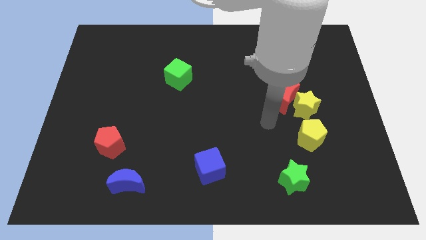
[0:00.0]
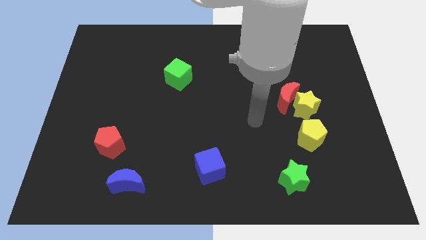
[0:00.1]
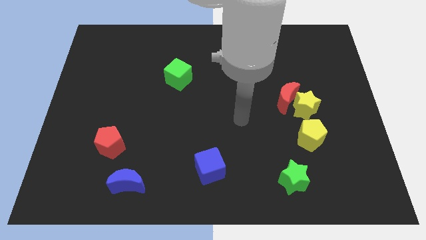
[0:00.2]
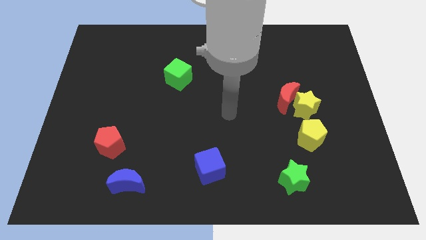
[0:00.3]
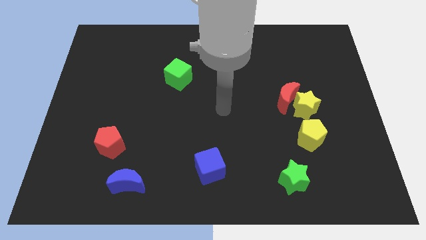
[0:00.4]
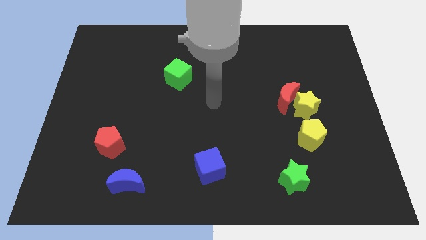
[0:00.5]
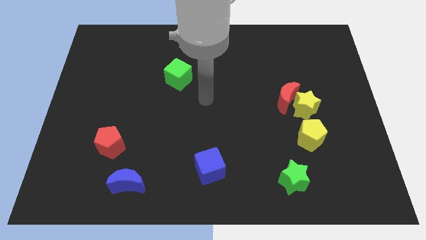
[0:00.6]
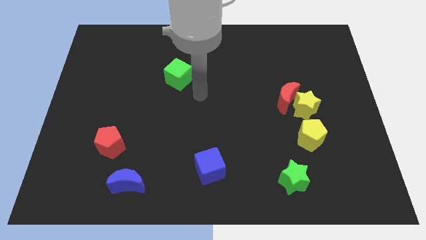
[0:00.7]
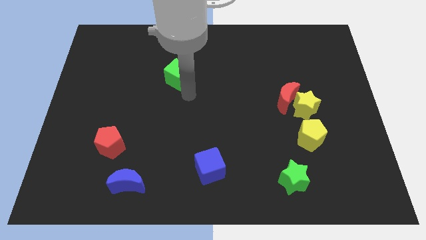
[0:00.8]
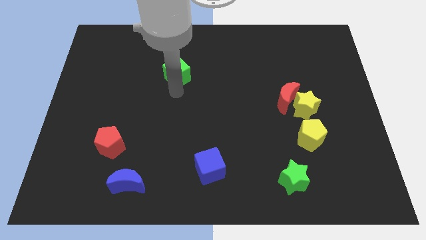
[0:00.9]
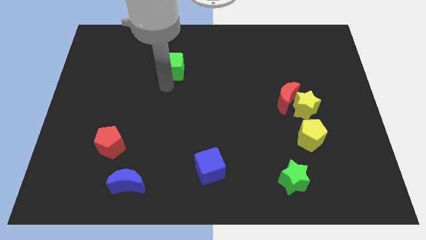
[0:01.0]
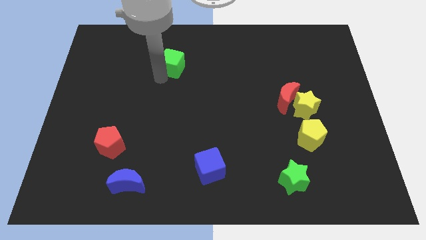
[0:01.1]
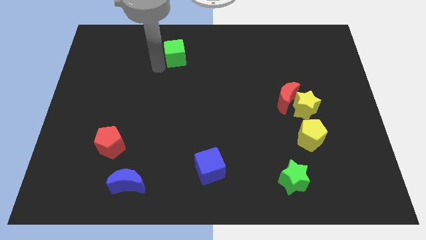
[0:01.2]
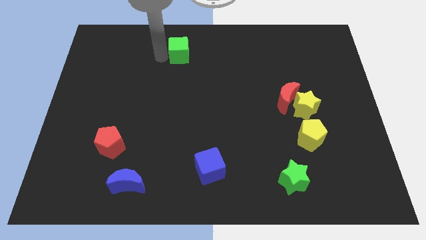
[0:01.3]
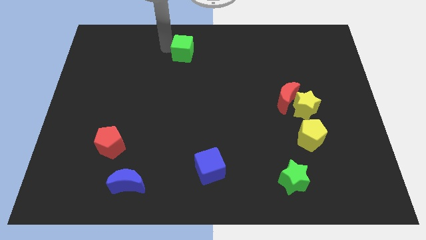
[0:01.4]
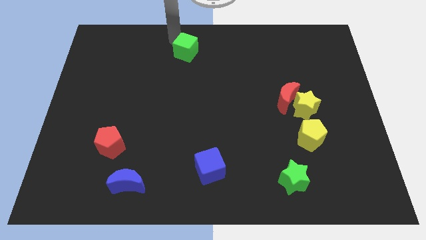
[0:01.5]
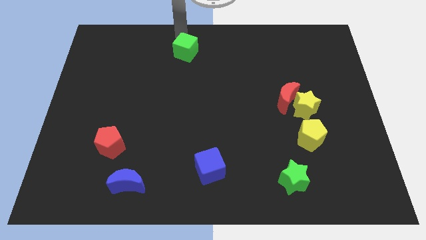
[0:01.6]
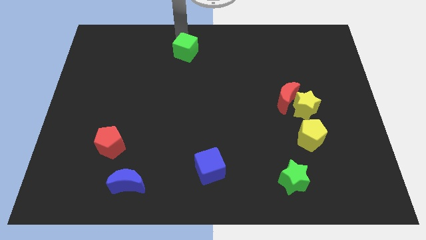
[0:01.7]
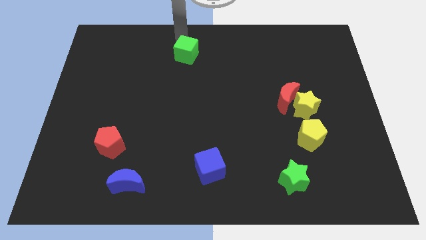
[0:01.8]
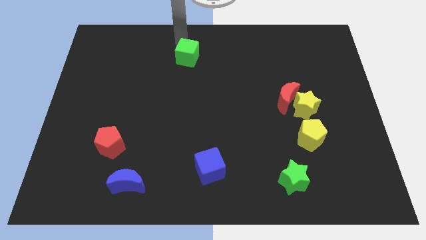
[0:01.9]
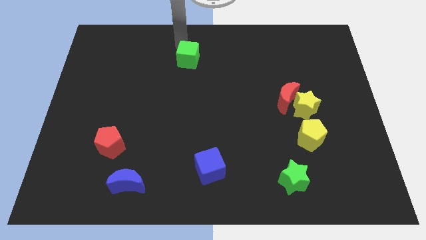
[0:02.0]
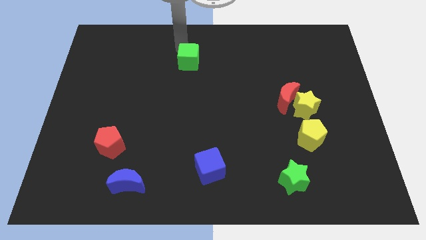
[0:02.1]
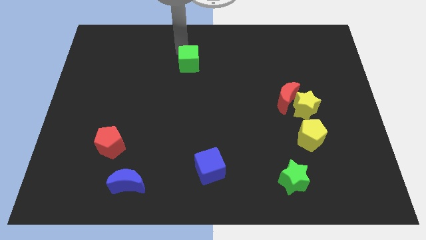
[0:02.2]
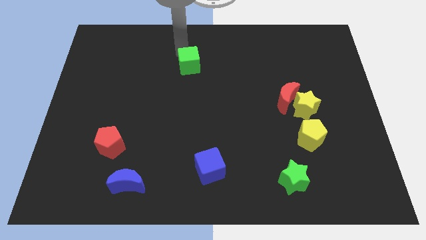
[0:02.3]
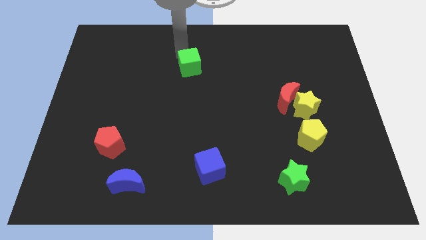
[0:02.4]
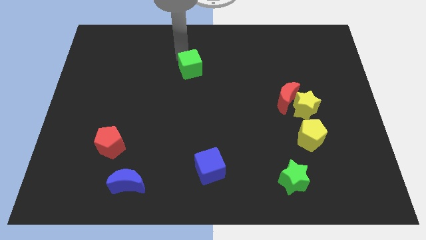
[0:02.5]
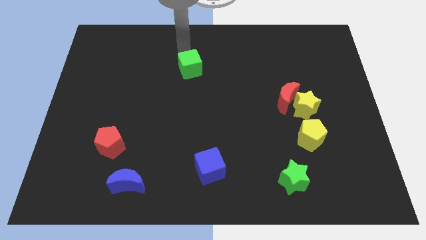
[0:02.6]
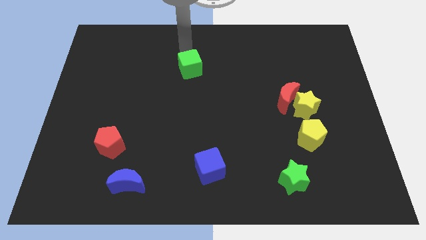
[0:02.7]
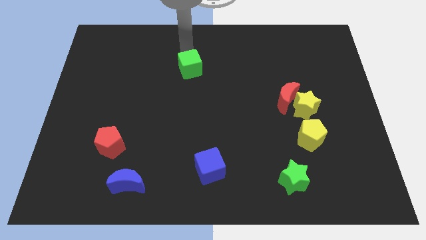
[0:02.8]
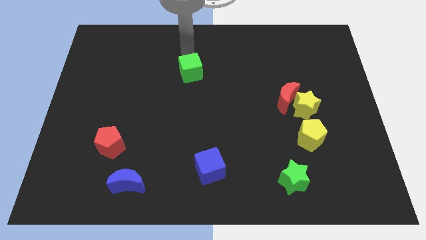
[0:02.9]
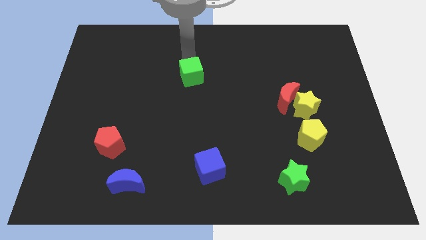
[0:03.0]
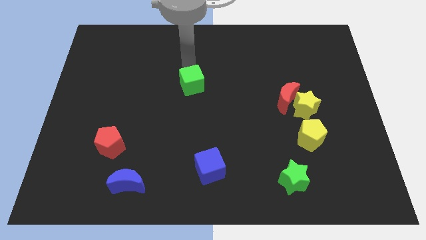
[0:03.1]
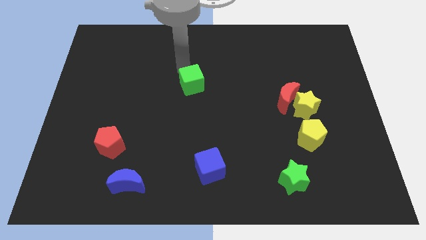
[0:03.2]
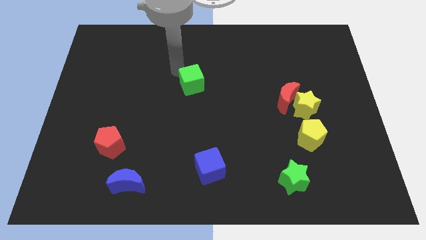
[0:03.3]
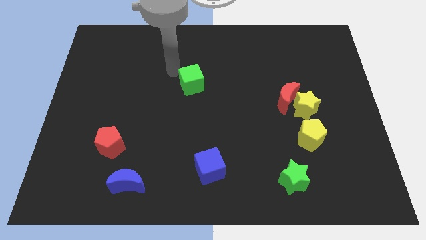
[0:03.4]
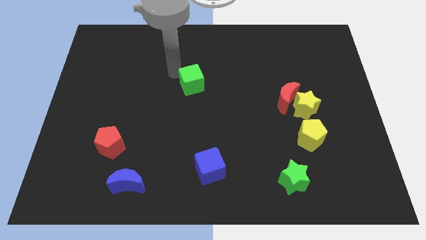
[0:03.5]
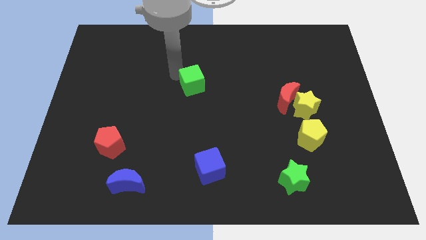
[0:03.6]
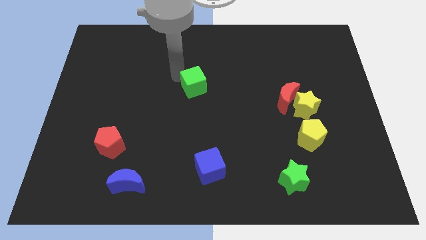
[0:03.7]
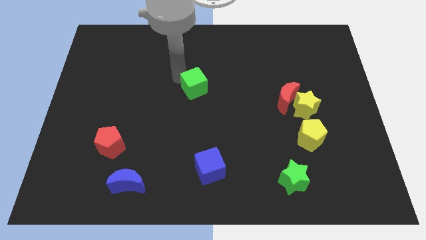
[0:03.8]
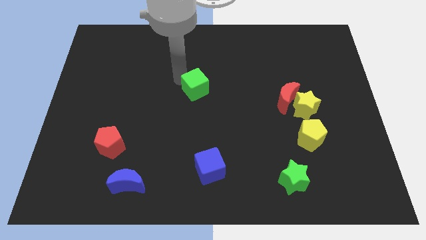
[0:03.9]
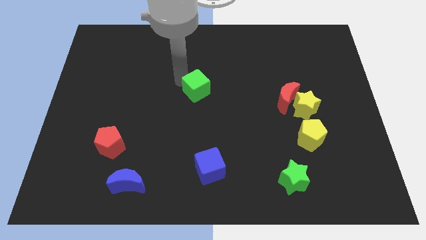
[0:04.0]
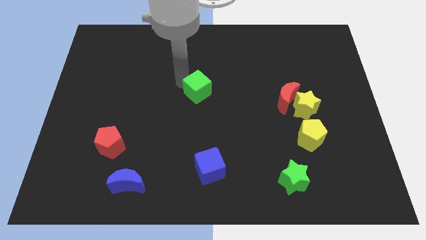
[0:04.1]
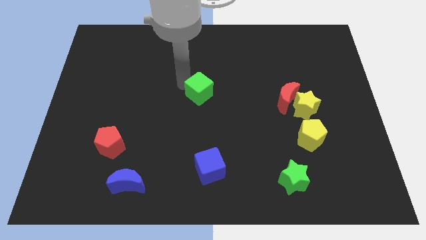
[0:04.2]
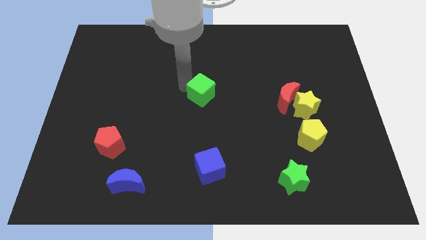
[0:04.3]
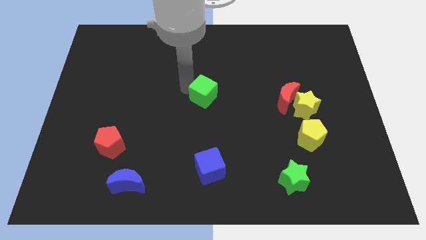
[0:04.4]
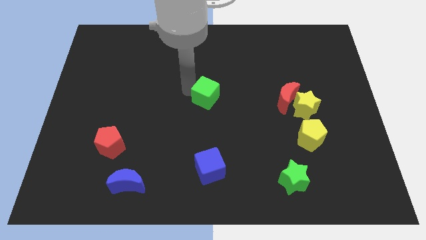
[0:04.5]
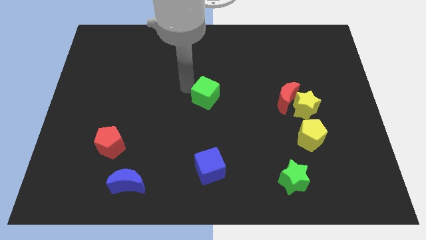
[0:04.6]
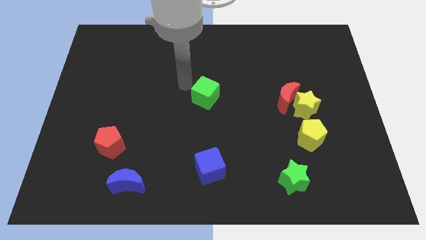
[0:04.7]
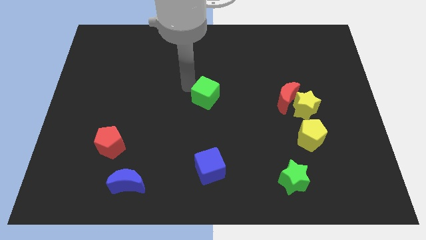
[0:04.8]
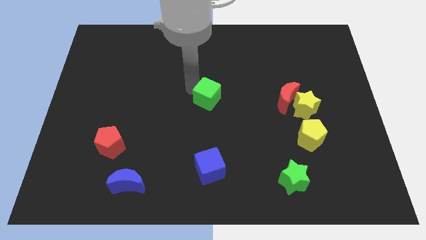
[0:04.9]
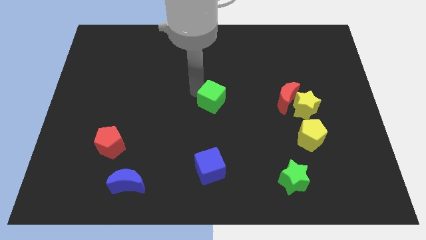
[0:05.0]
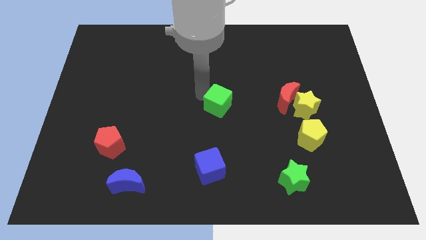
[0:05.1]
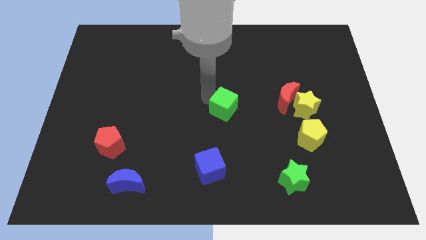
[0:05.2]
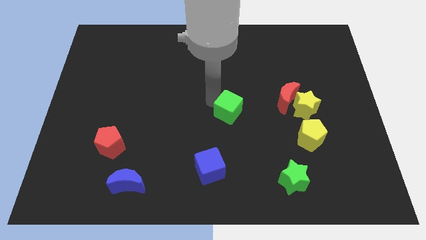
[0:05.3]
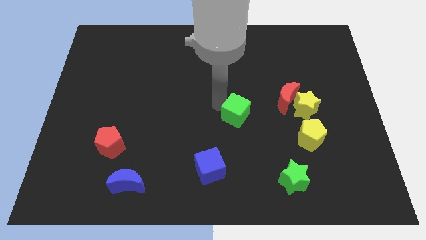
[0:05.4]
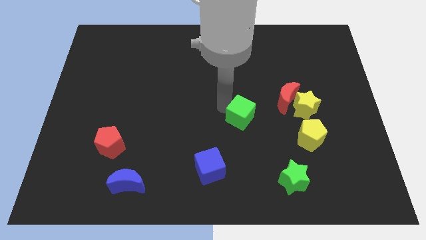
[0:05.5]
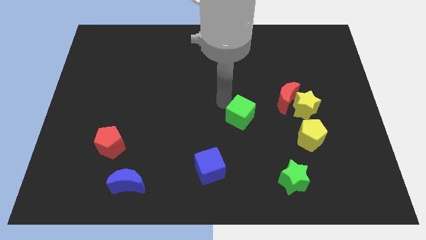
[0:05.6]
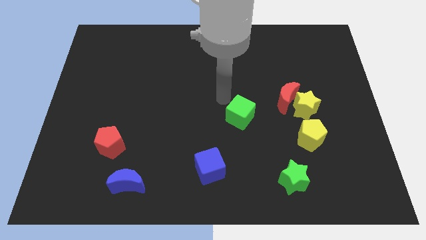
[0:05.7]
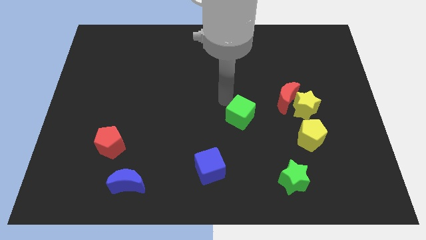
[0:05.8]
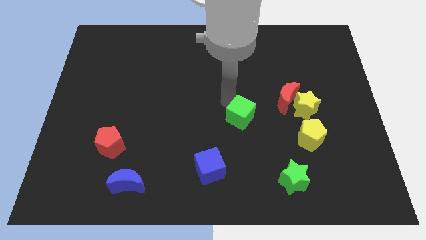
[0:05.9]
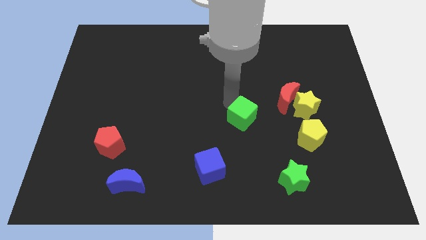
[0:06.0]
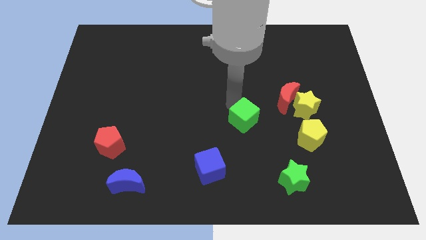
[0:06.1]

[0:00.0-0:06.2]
push the green cube down and to the right diagonally

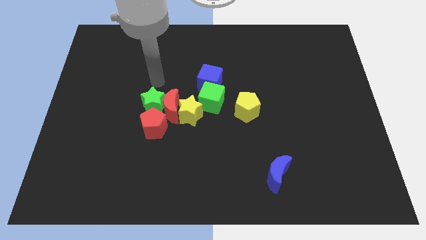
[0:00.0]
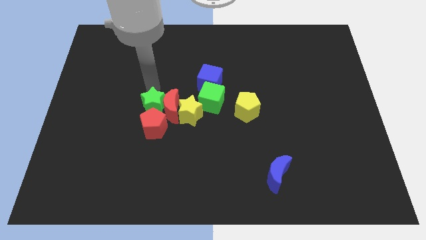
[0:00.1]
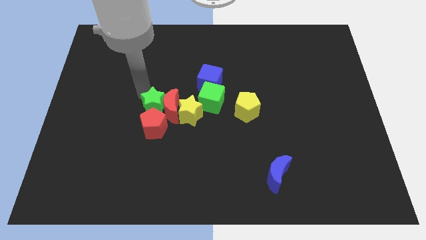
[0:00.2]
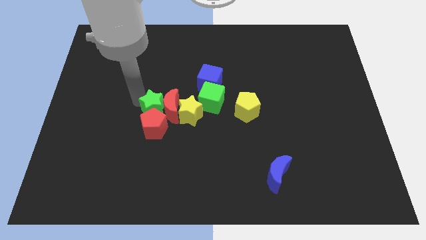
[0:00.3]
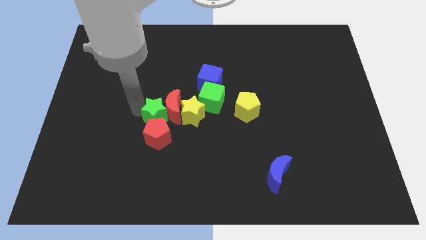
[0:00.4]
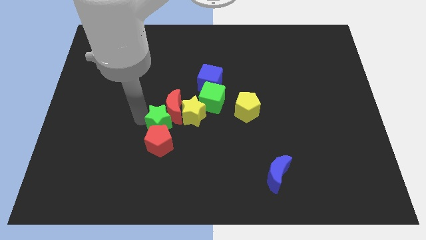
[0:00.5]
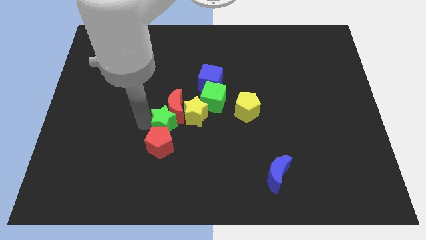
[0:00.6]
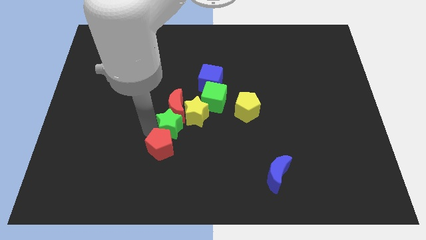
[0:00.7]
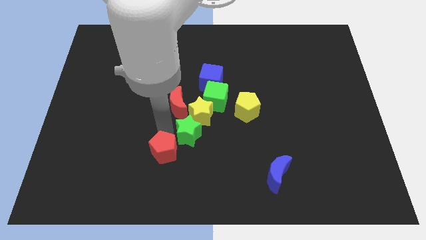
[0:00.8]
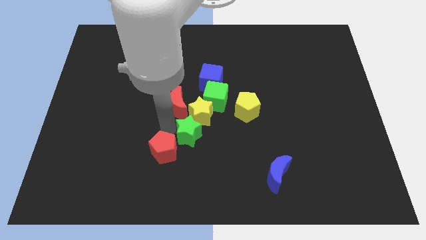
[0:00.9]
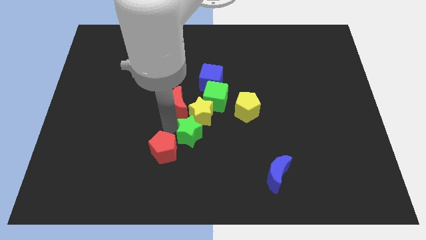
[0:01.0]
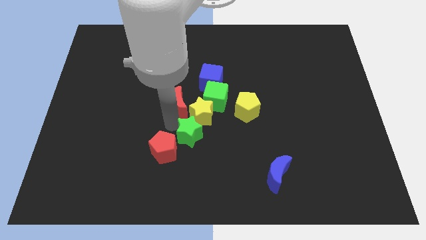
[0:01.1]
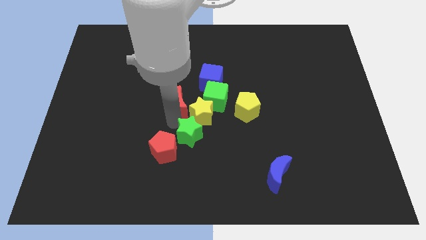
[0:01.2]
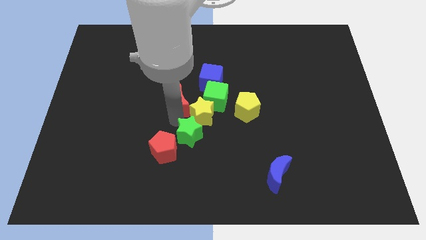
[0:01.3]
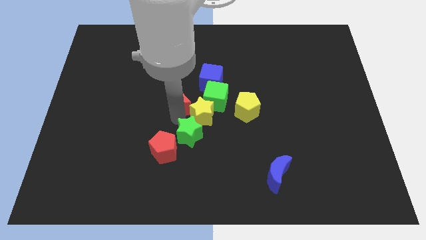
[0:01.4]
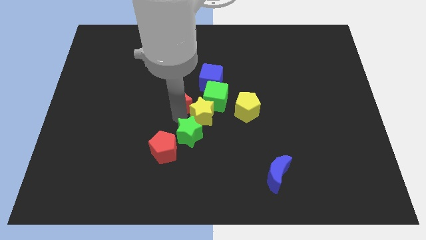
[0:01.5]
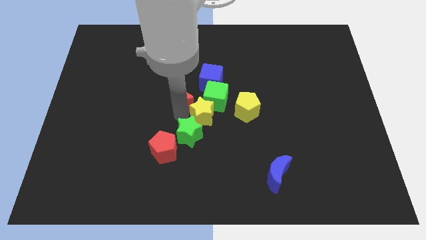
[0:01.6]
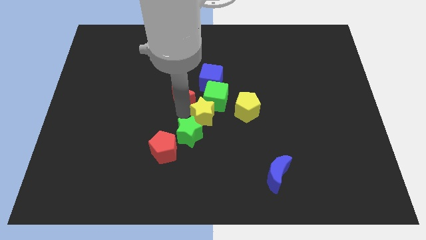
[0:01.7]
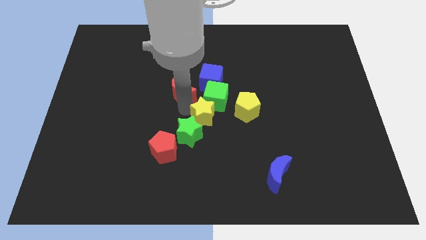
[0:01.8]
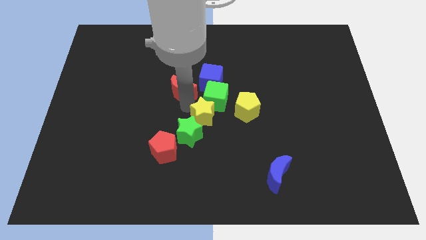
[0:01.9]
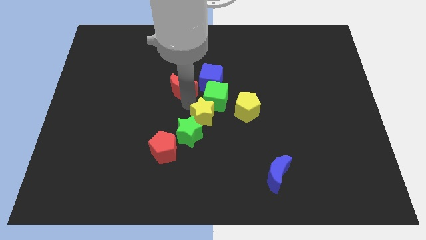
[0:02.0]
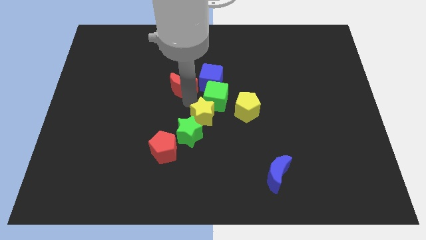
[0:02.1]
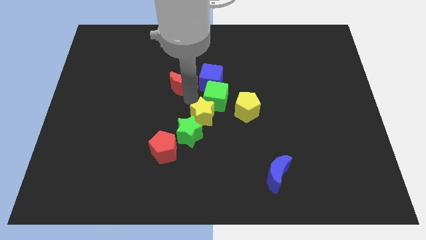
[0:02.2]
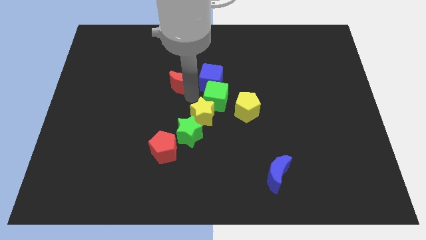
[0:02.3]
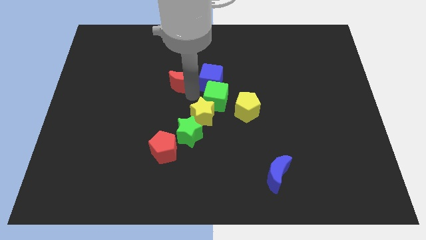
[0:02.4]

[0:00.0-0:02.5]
slide the red moon diagonally up and right a little bit
